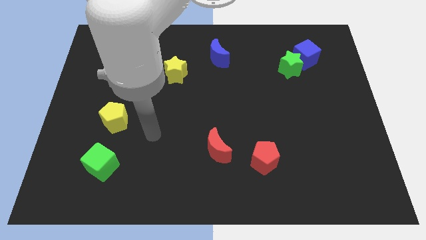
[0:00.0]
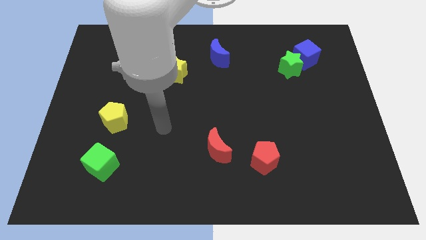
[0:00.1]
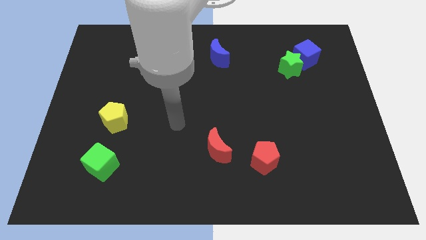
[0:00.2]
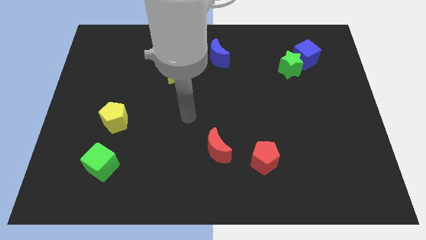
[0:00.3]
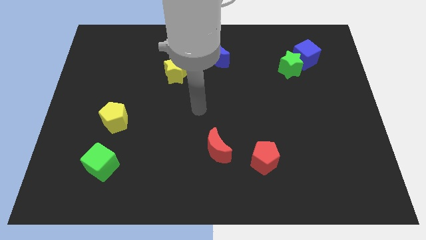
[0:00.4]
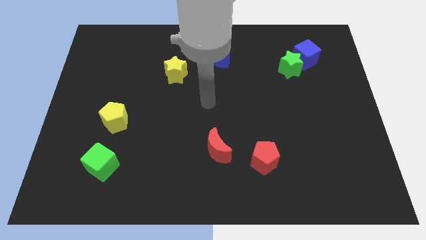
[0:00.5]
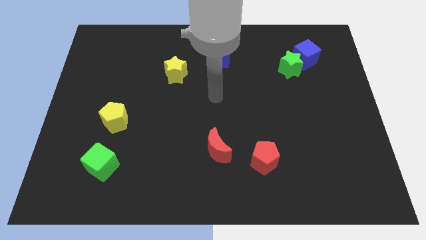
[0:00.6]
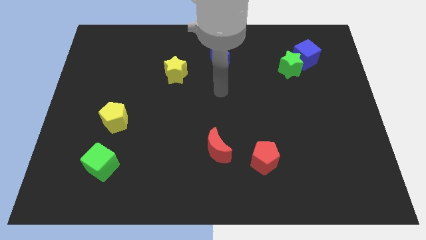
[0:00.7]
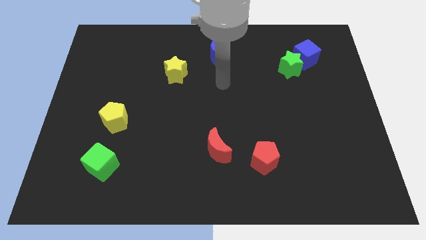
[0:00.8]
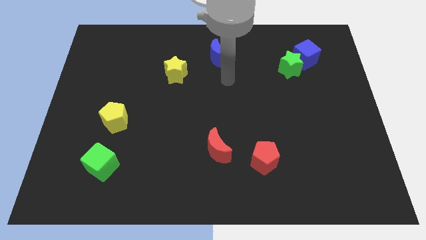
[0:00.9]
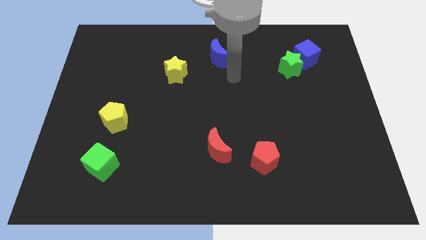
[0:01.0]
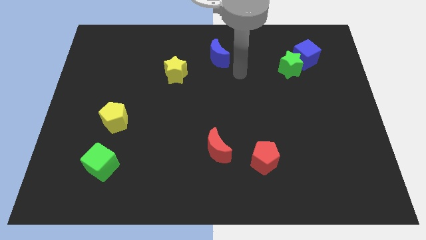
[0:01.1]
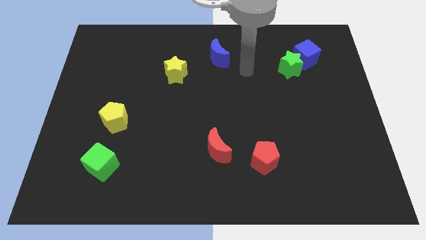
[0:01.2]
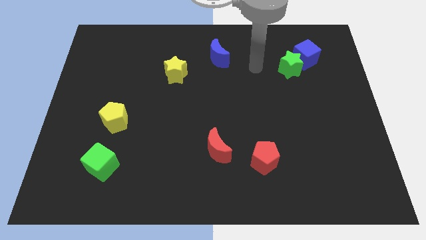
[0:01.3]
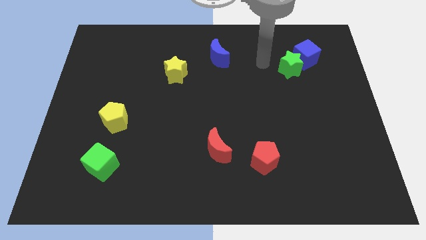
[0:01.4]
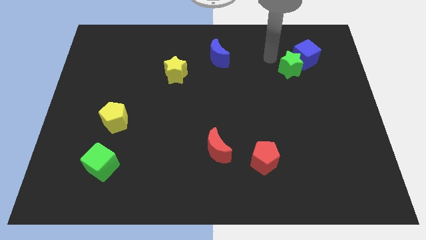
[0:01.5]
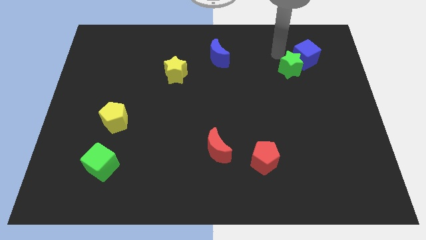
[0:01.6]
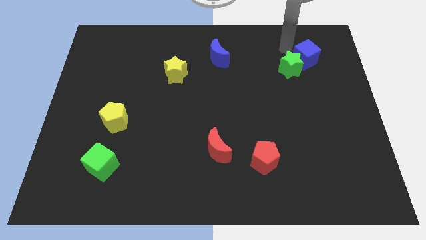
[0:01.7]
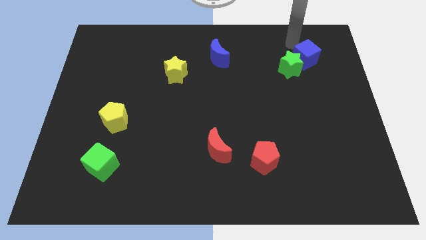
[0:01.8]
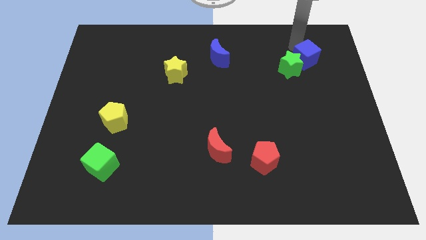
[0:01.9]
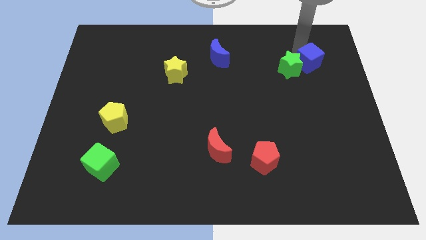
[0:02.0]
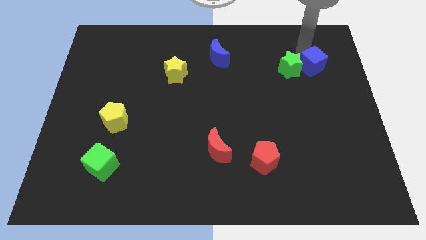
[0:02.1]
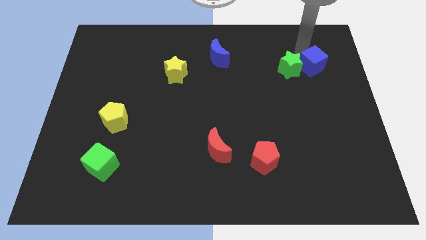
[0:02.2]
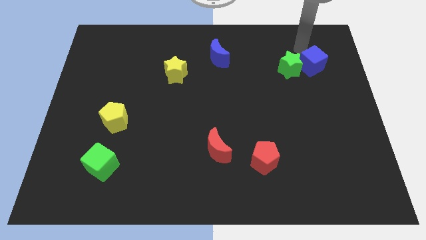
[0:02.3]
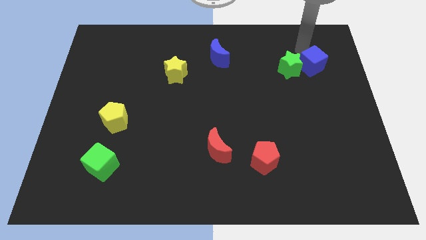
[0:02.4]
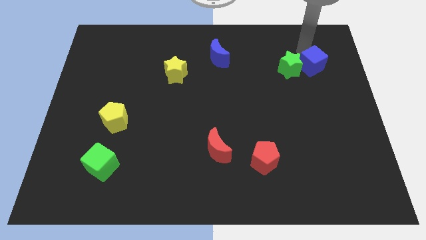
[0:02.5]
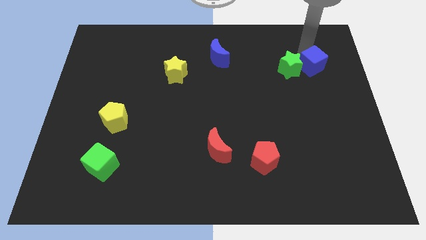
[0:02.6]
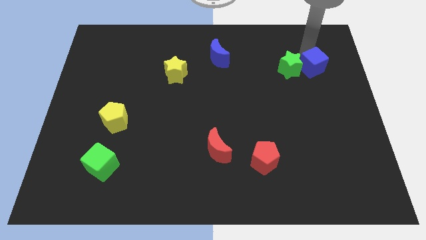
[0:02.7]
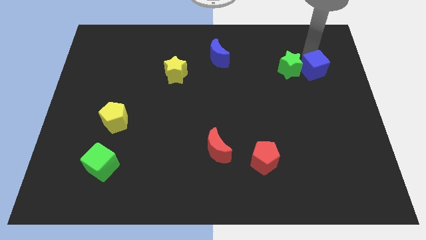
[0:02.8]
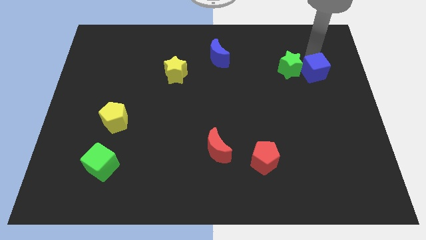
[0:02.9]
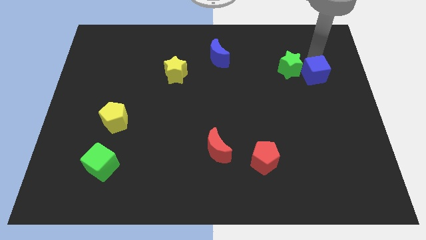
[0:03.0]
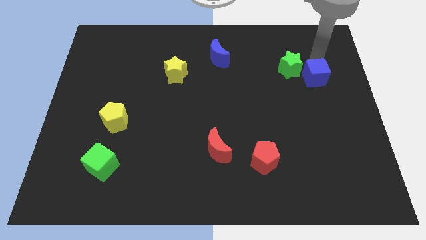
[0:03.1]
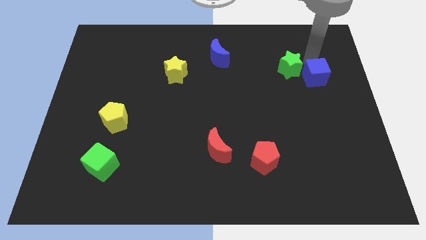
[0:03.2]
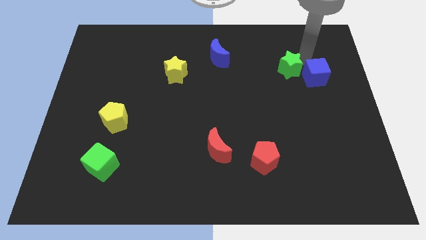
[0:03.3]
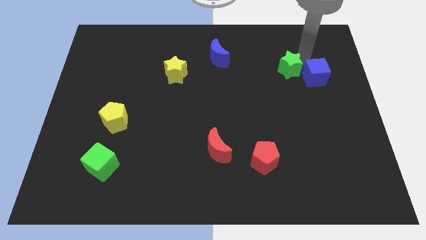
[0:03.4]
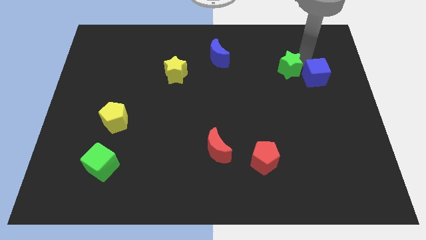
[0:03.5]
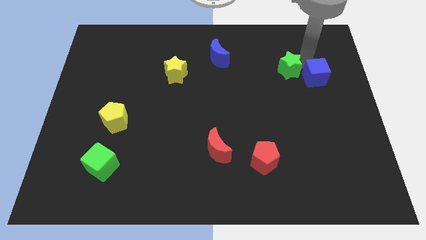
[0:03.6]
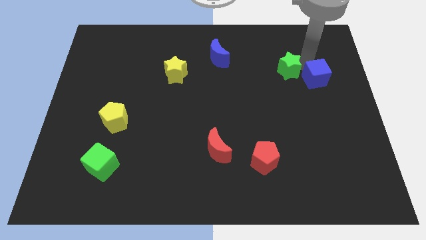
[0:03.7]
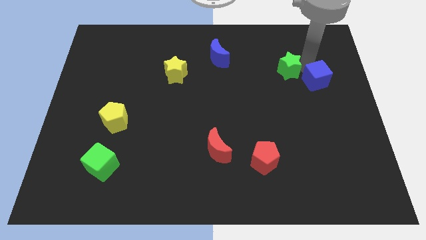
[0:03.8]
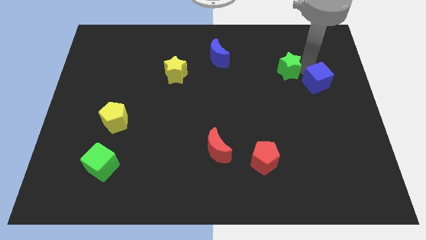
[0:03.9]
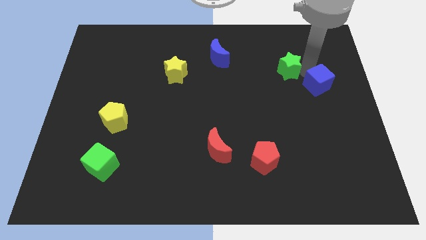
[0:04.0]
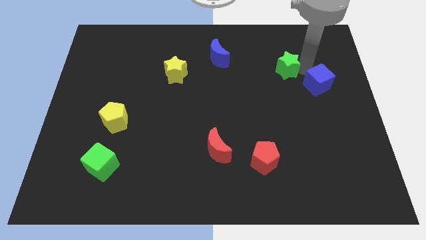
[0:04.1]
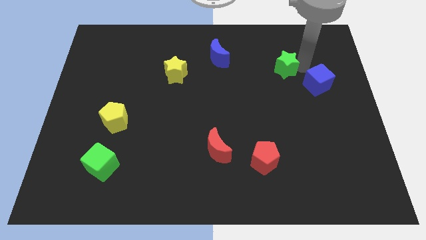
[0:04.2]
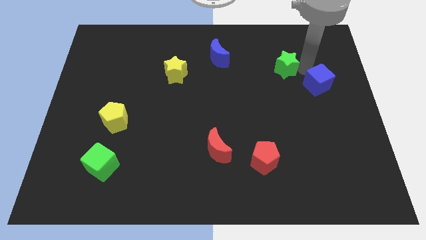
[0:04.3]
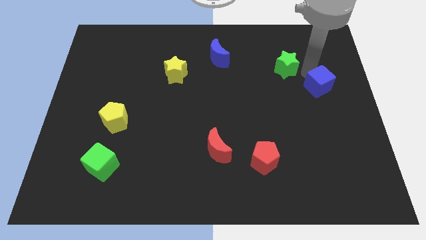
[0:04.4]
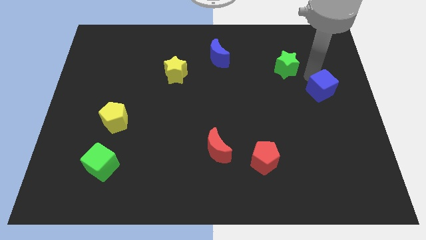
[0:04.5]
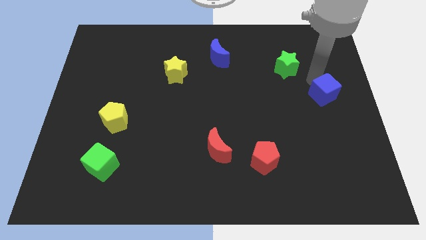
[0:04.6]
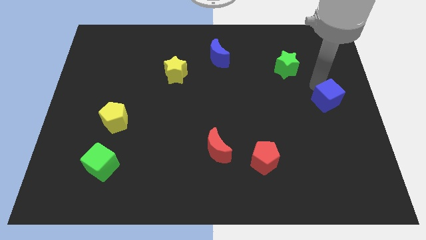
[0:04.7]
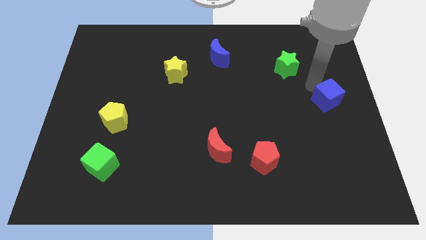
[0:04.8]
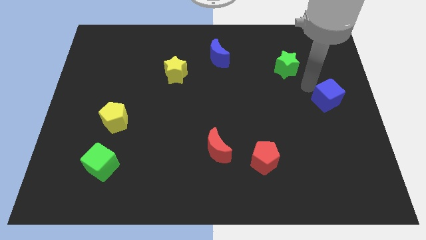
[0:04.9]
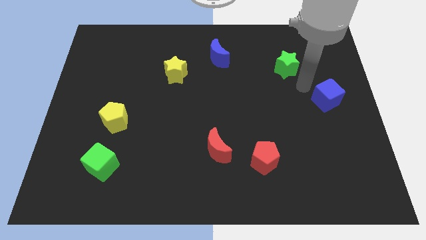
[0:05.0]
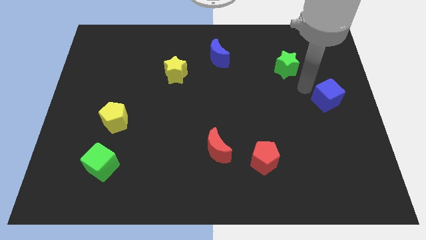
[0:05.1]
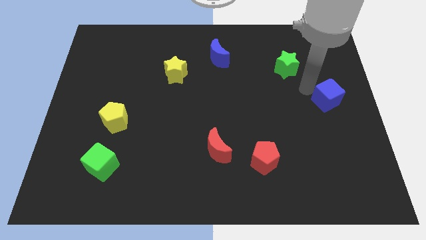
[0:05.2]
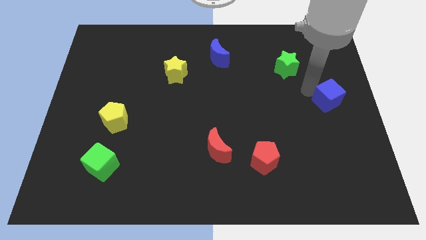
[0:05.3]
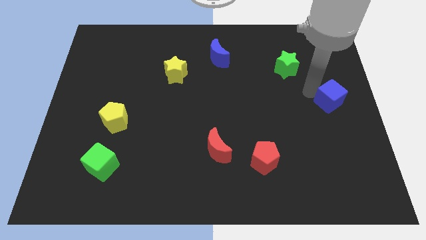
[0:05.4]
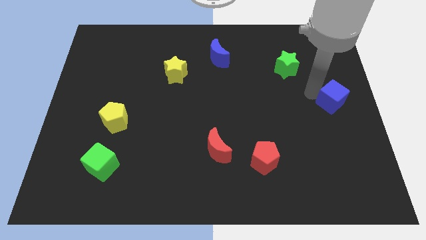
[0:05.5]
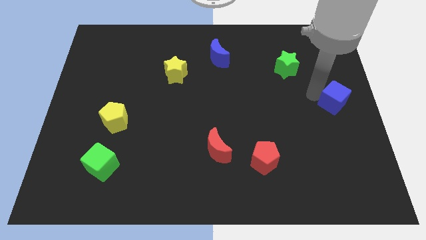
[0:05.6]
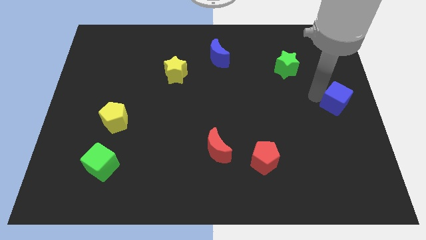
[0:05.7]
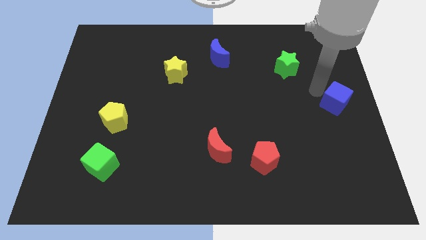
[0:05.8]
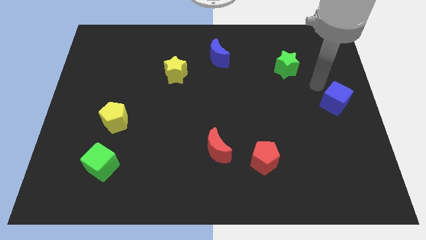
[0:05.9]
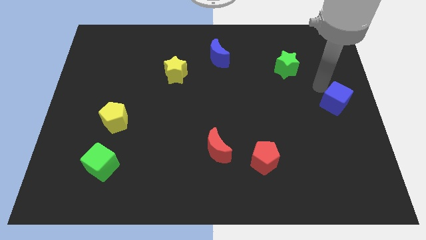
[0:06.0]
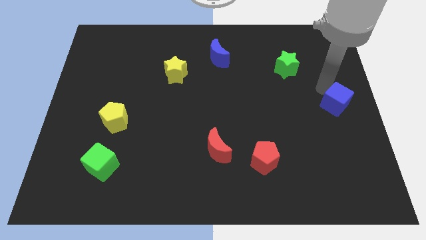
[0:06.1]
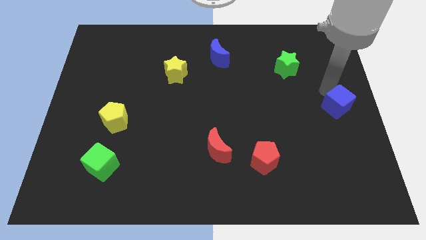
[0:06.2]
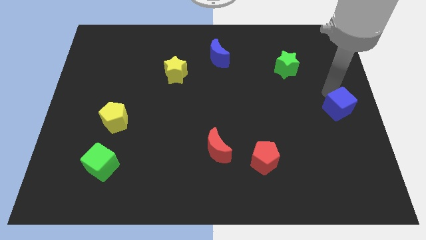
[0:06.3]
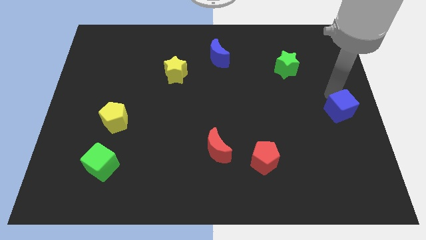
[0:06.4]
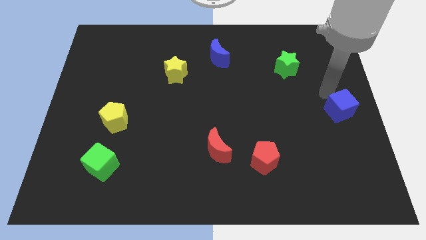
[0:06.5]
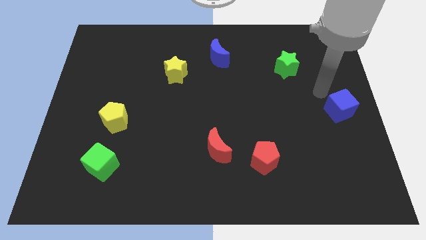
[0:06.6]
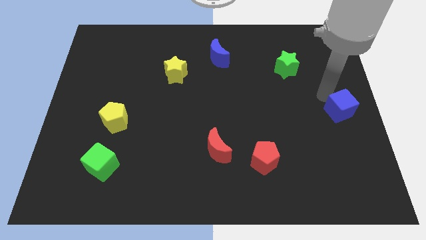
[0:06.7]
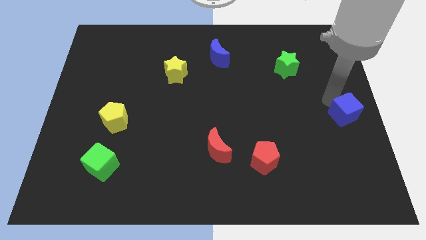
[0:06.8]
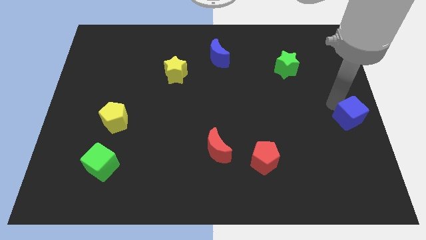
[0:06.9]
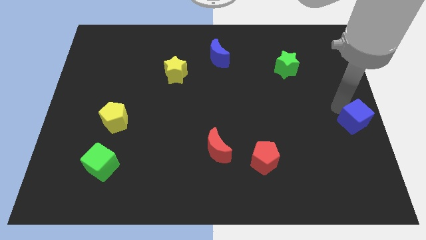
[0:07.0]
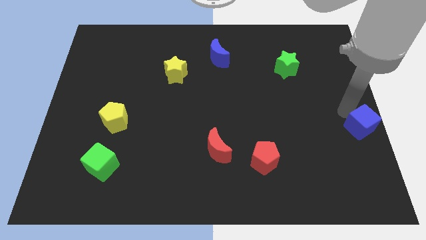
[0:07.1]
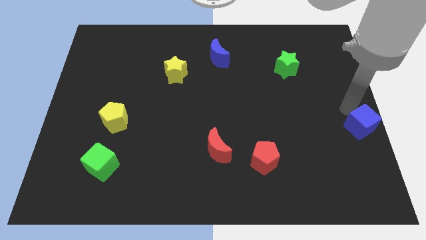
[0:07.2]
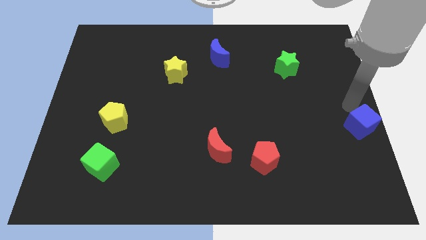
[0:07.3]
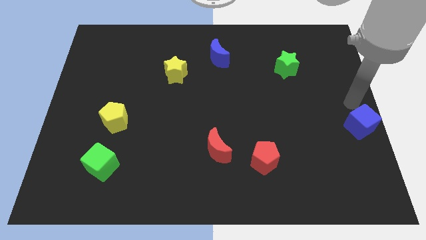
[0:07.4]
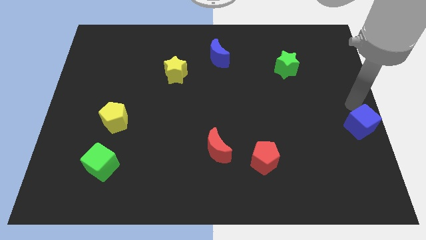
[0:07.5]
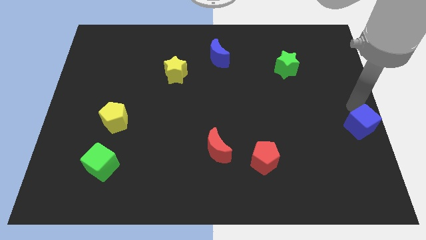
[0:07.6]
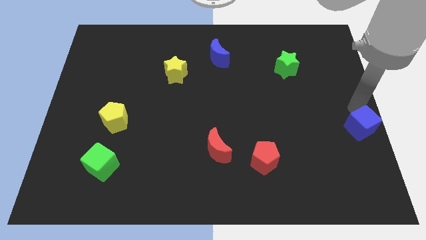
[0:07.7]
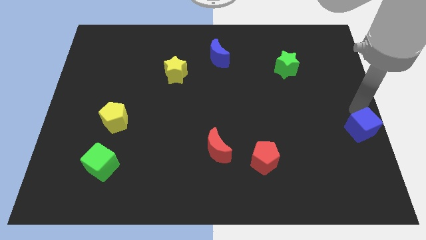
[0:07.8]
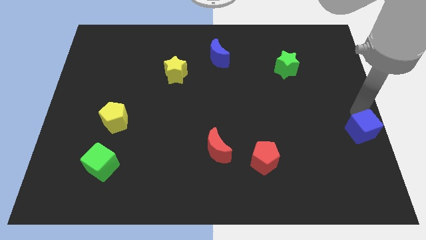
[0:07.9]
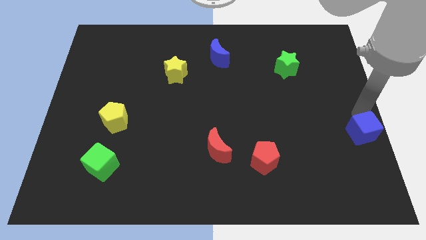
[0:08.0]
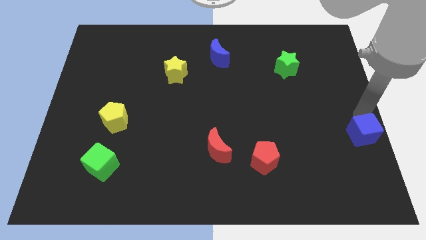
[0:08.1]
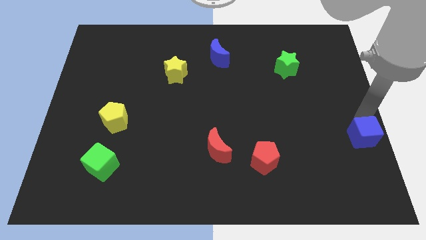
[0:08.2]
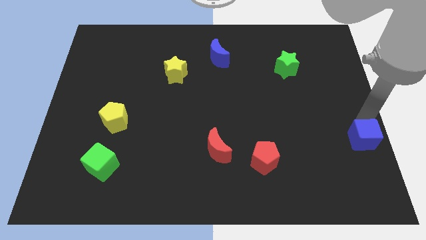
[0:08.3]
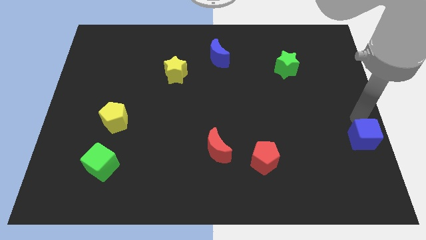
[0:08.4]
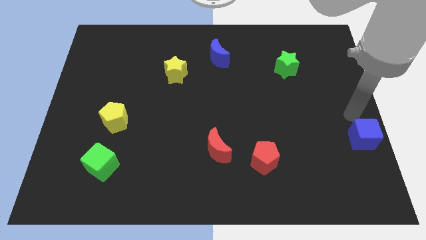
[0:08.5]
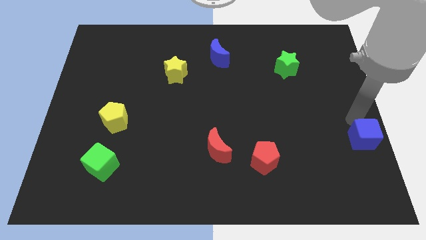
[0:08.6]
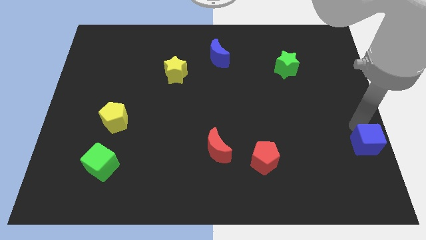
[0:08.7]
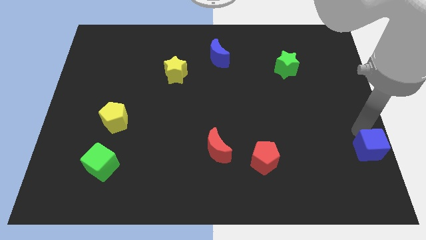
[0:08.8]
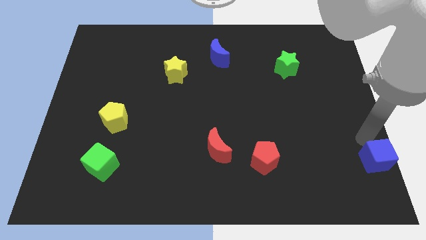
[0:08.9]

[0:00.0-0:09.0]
move the blue cube to the bottom right corner
